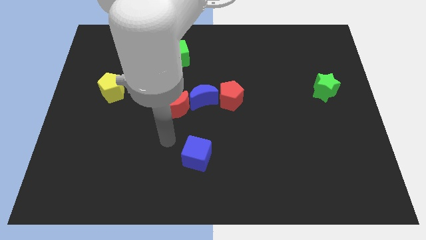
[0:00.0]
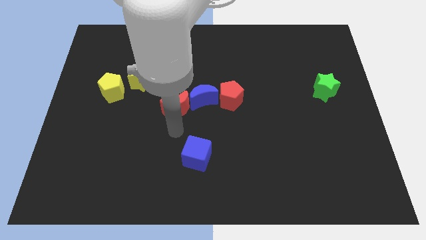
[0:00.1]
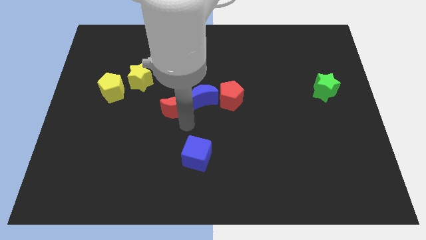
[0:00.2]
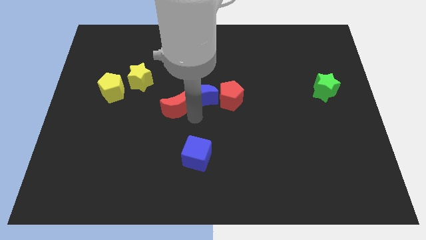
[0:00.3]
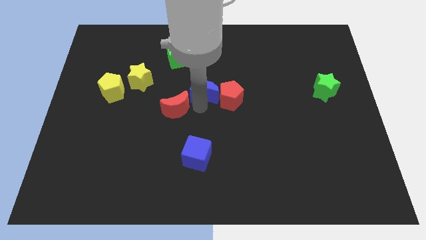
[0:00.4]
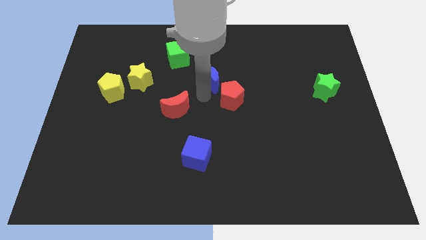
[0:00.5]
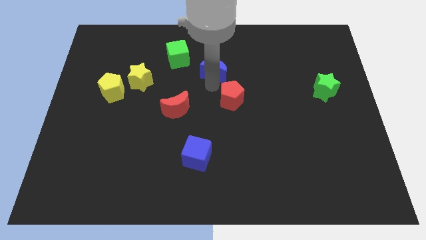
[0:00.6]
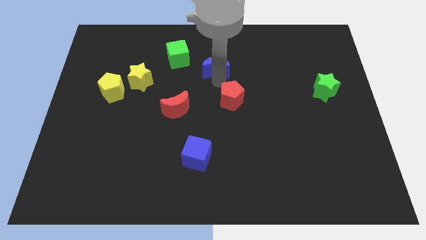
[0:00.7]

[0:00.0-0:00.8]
separate the red pentagon from the blue moon

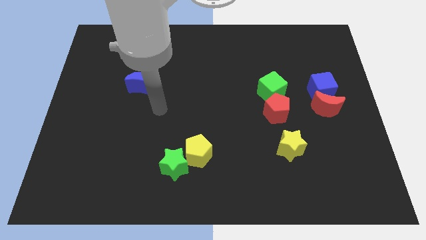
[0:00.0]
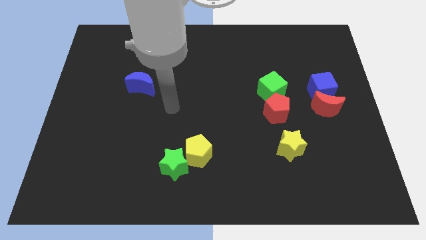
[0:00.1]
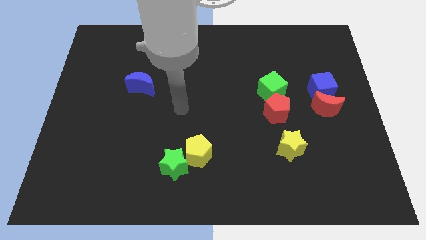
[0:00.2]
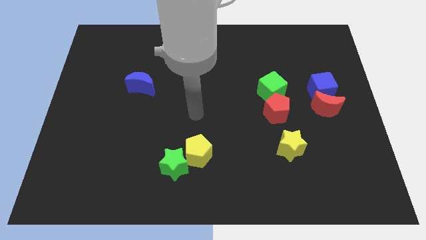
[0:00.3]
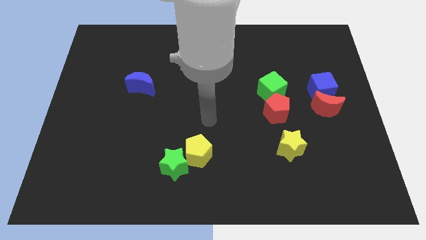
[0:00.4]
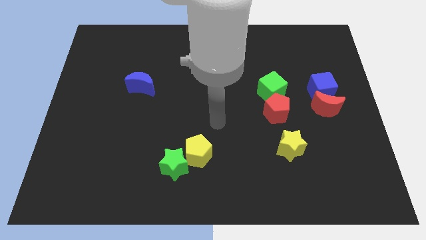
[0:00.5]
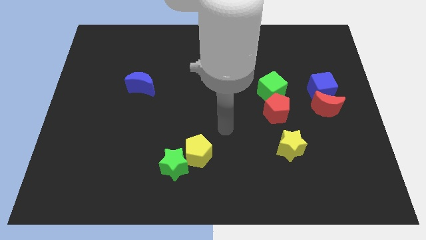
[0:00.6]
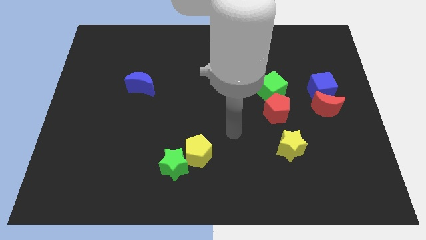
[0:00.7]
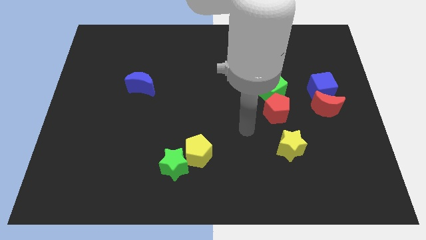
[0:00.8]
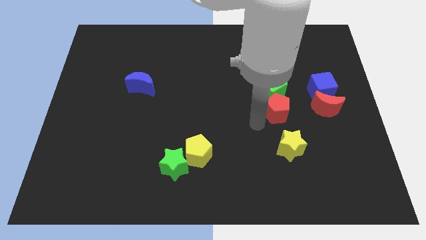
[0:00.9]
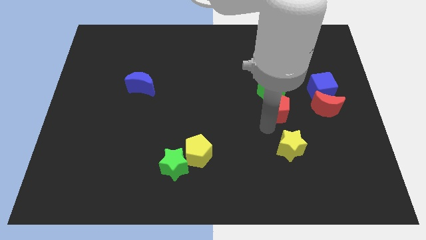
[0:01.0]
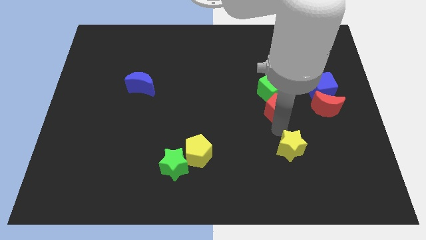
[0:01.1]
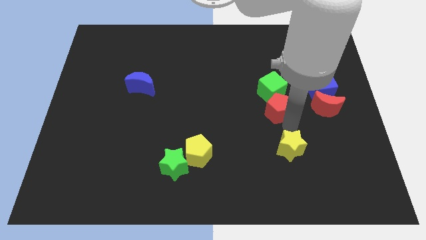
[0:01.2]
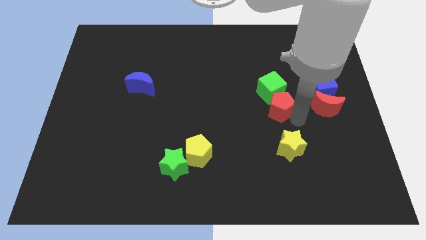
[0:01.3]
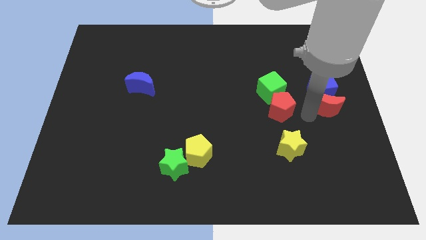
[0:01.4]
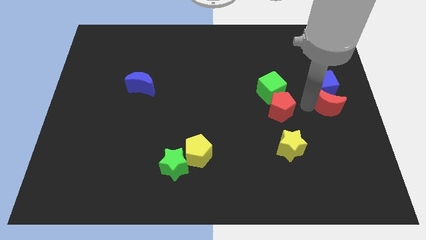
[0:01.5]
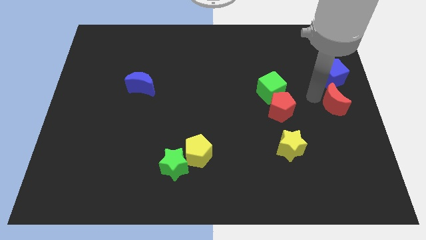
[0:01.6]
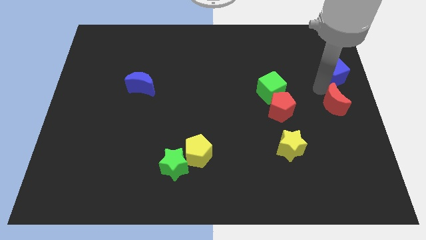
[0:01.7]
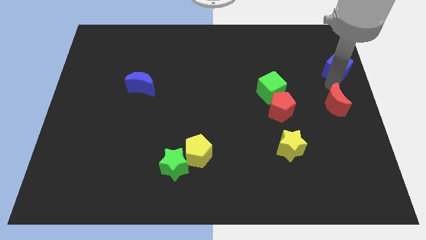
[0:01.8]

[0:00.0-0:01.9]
move the red moon away from the blue cube

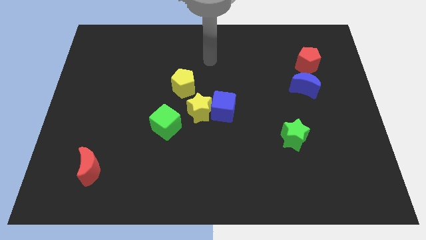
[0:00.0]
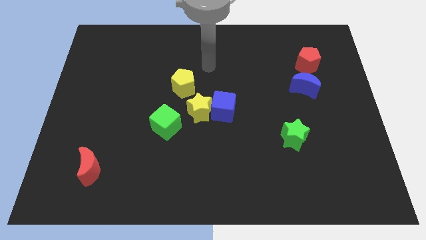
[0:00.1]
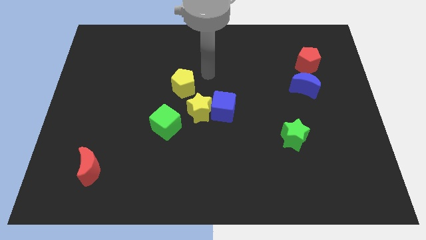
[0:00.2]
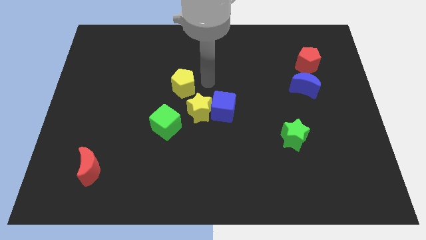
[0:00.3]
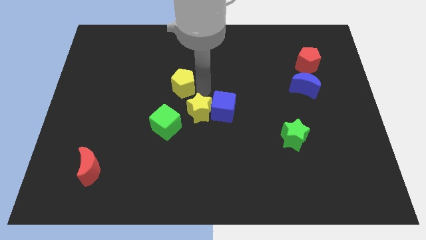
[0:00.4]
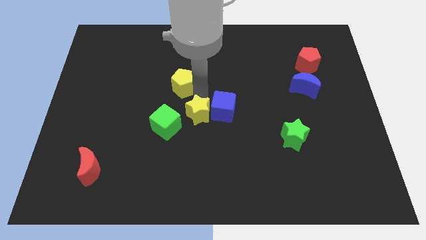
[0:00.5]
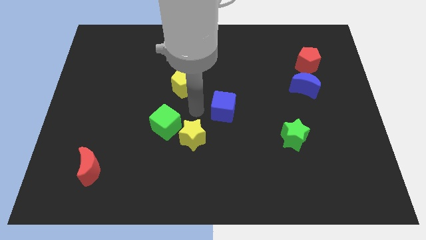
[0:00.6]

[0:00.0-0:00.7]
pull the blue cube apart from the yellow star

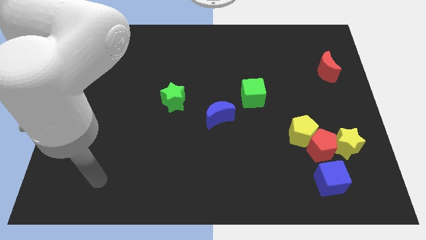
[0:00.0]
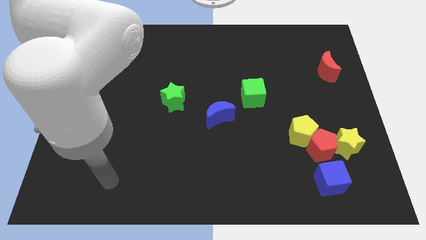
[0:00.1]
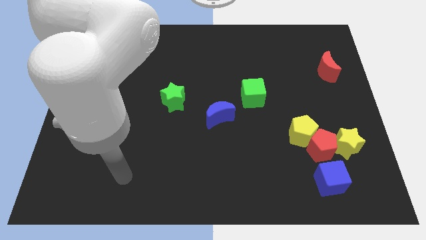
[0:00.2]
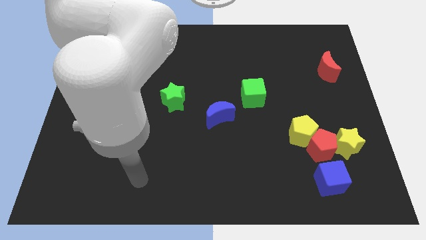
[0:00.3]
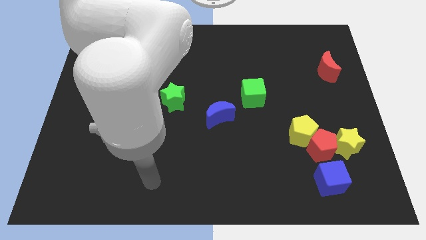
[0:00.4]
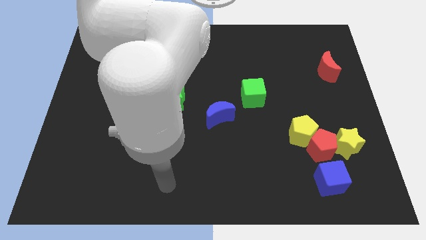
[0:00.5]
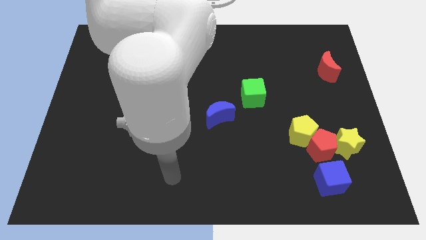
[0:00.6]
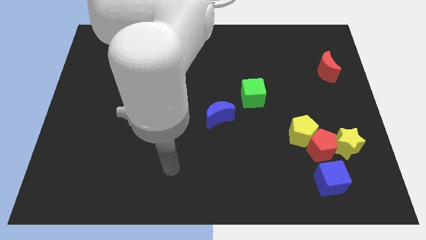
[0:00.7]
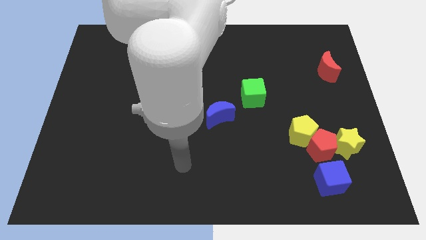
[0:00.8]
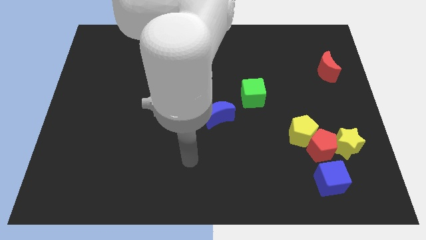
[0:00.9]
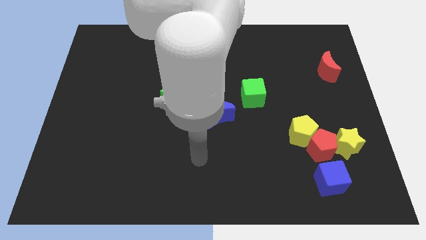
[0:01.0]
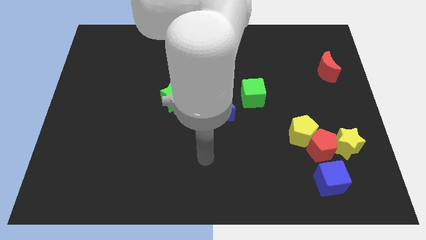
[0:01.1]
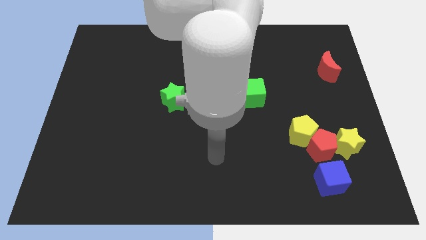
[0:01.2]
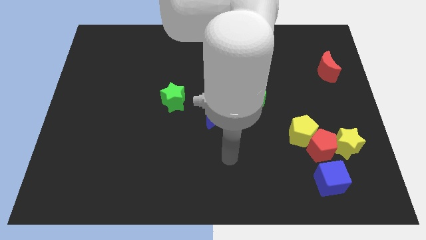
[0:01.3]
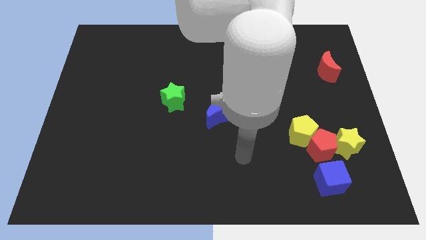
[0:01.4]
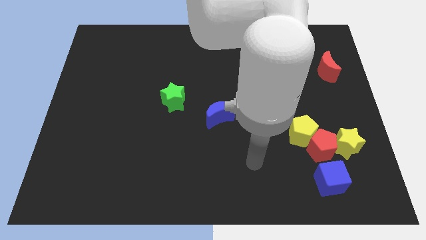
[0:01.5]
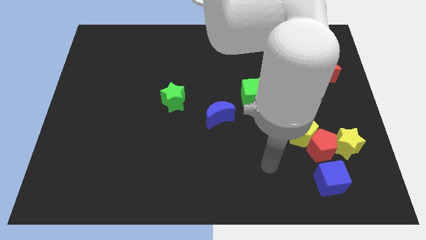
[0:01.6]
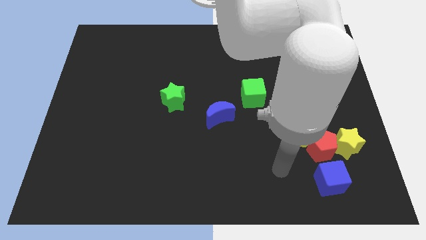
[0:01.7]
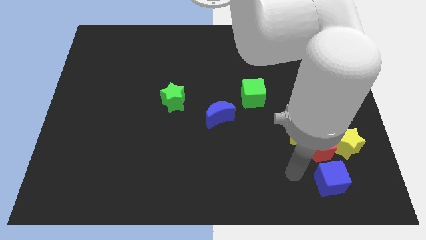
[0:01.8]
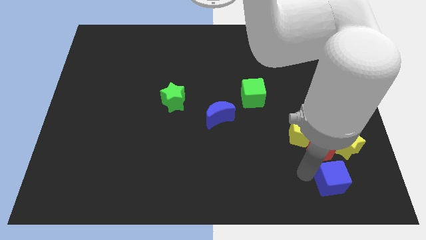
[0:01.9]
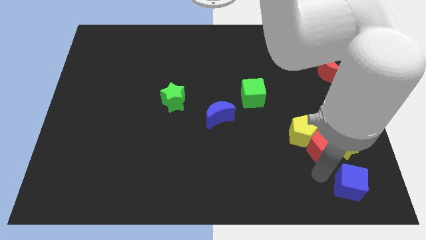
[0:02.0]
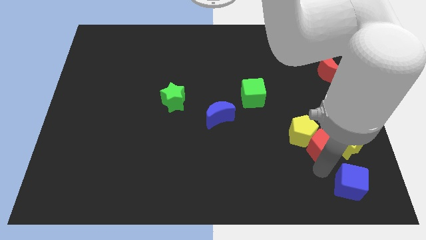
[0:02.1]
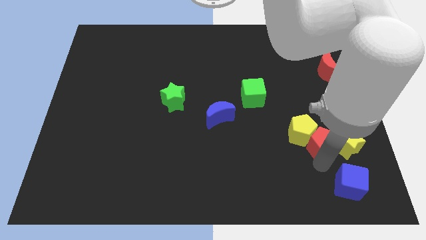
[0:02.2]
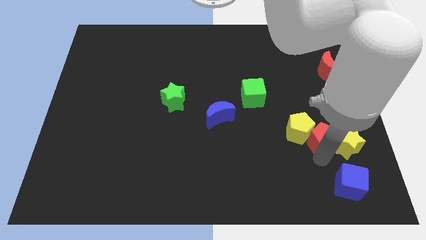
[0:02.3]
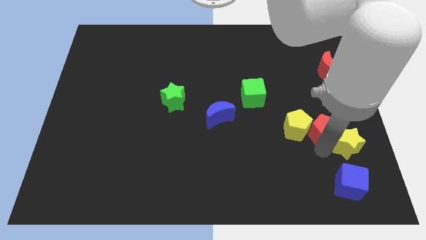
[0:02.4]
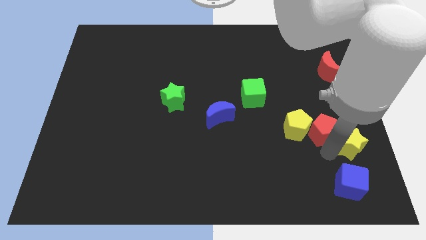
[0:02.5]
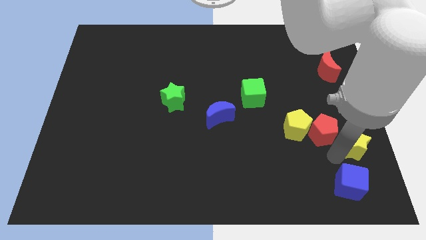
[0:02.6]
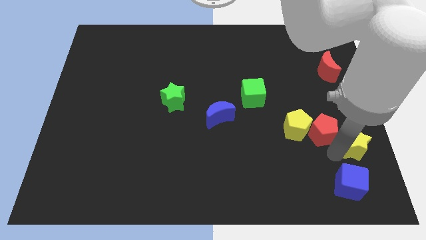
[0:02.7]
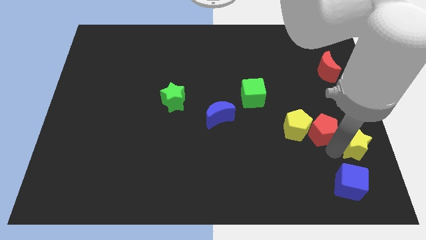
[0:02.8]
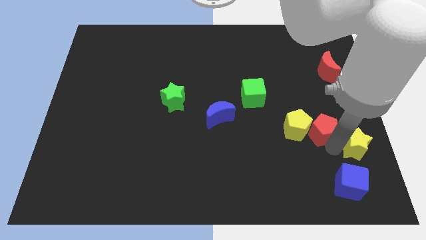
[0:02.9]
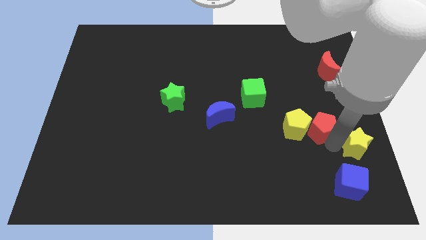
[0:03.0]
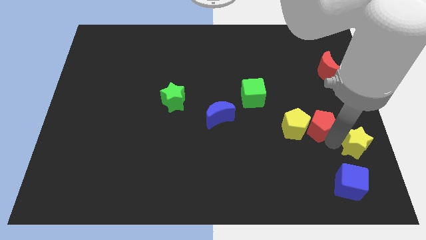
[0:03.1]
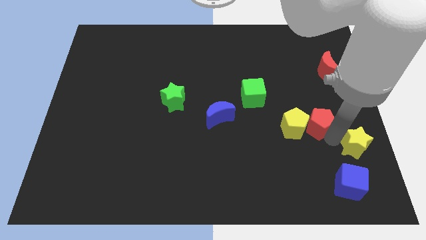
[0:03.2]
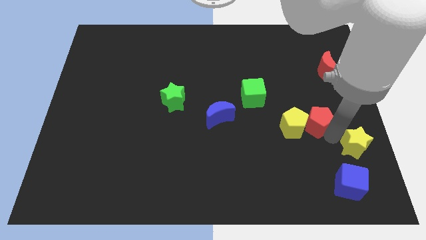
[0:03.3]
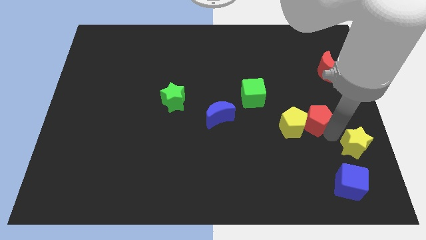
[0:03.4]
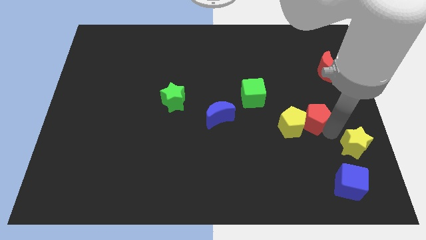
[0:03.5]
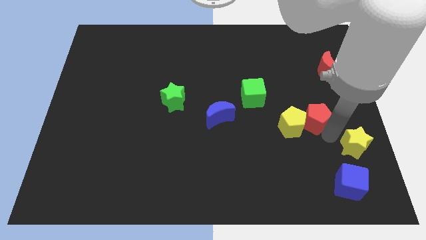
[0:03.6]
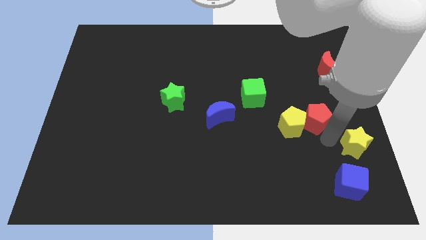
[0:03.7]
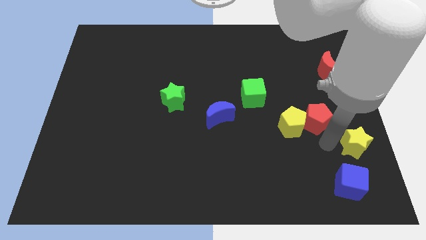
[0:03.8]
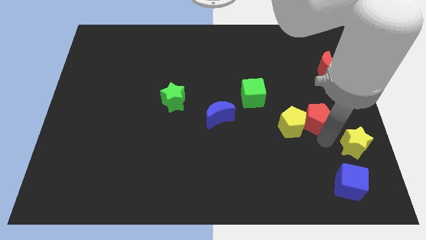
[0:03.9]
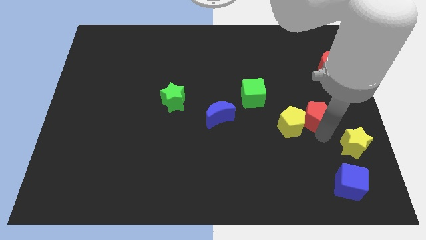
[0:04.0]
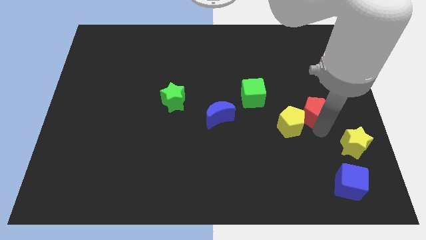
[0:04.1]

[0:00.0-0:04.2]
pull the red pentagon apart from the clump

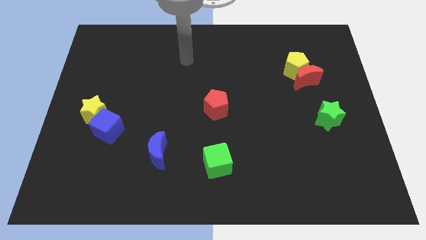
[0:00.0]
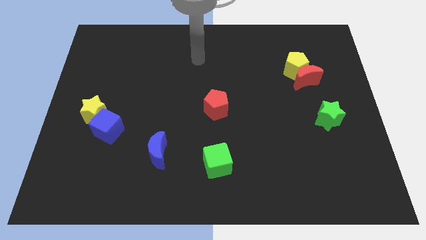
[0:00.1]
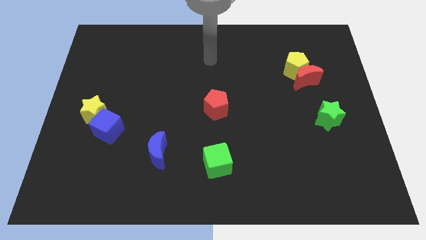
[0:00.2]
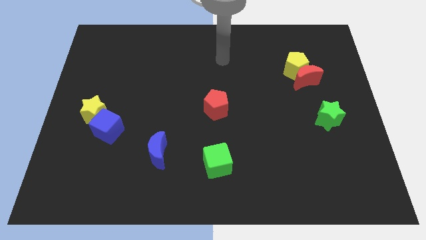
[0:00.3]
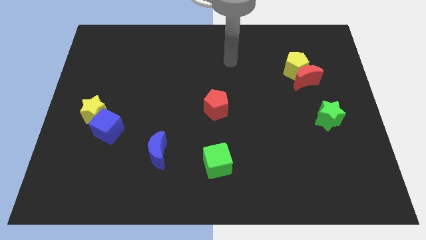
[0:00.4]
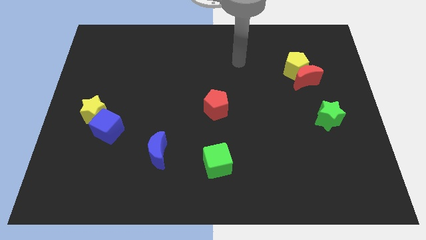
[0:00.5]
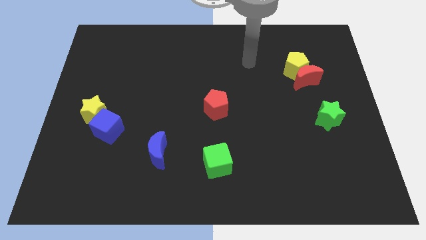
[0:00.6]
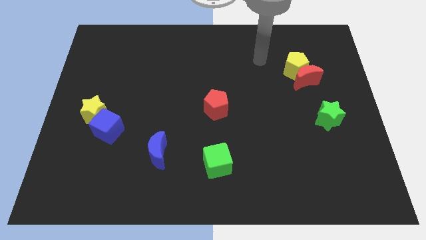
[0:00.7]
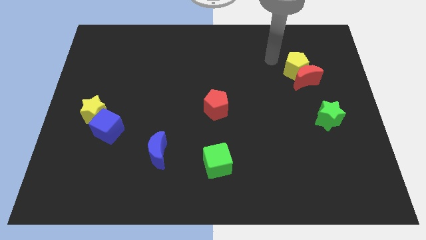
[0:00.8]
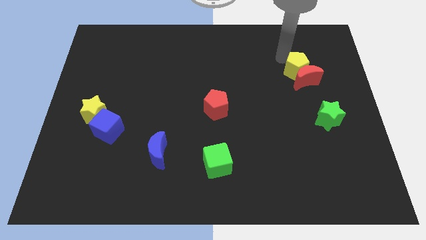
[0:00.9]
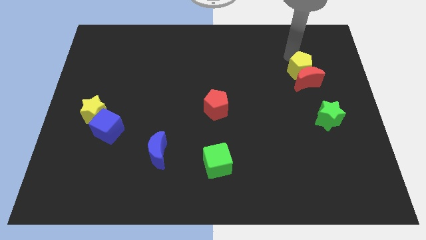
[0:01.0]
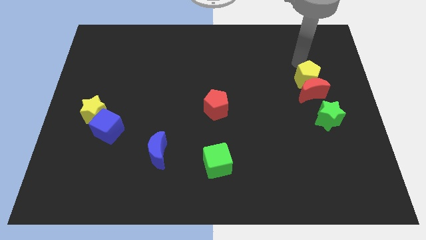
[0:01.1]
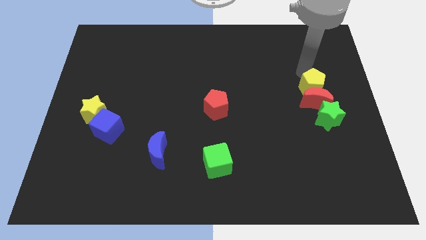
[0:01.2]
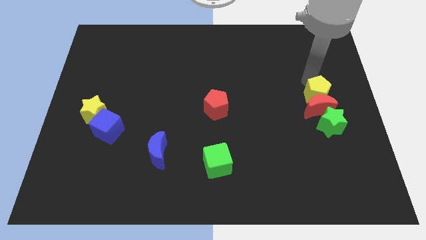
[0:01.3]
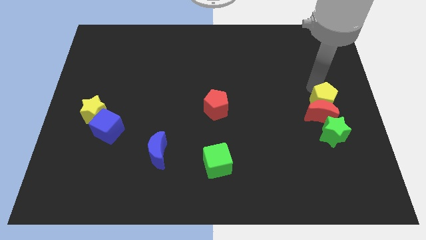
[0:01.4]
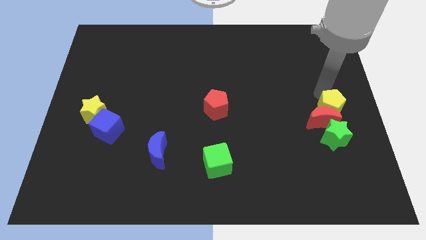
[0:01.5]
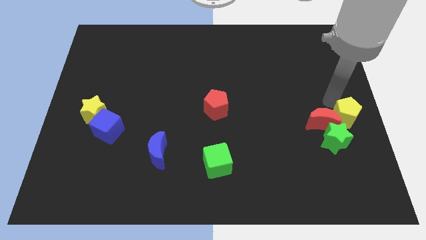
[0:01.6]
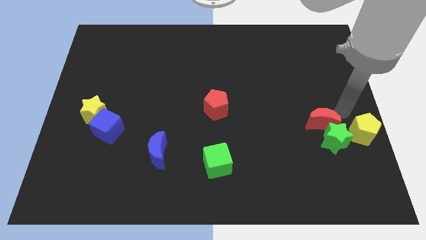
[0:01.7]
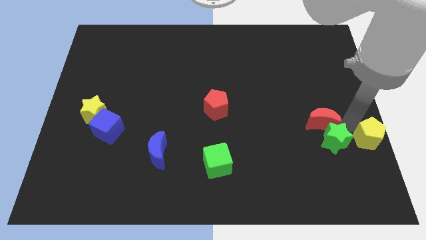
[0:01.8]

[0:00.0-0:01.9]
separate the red moon from the yellow pentagon
